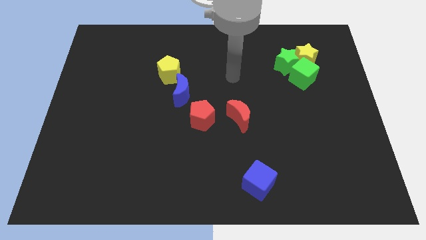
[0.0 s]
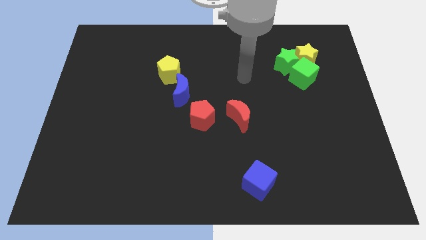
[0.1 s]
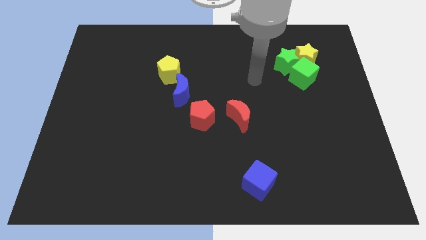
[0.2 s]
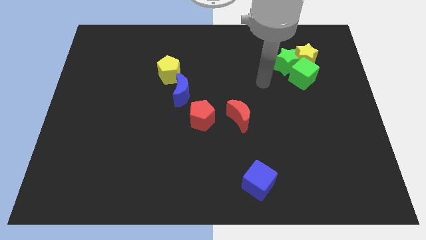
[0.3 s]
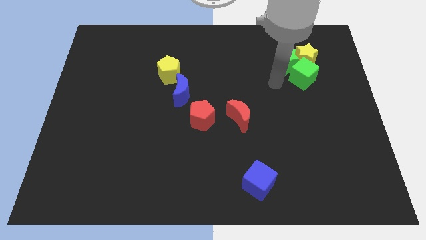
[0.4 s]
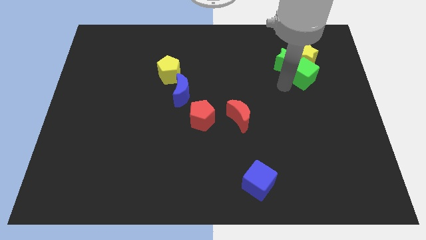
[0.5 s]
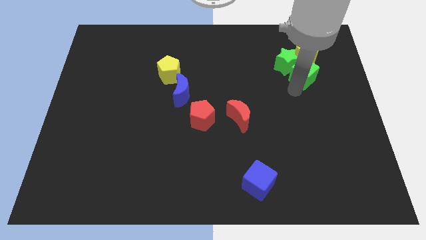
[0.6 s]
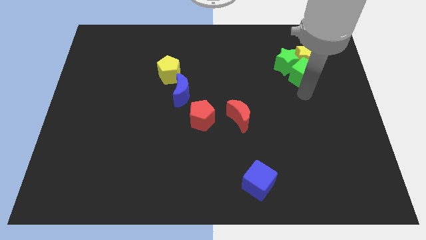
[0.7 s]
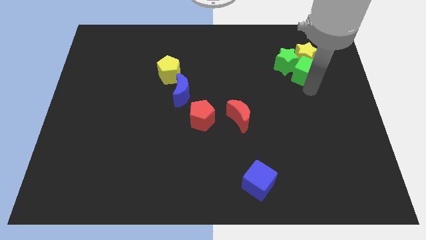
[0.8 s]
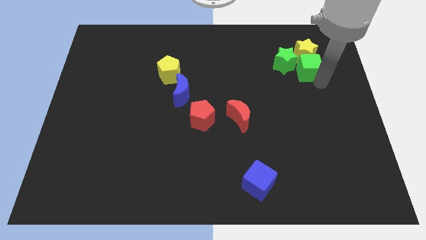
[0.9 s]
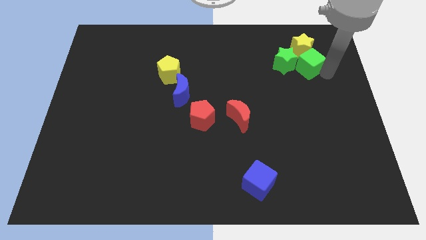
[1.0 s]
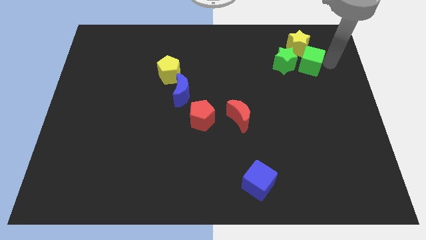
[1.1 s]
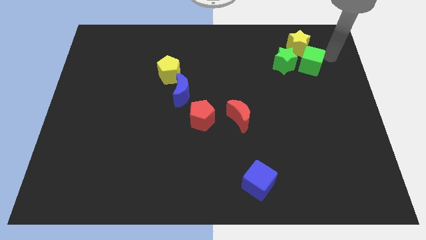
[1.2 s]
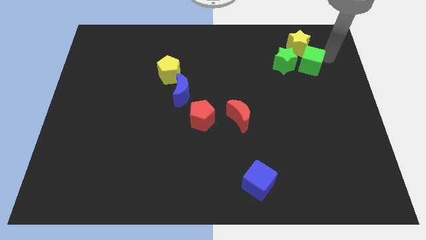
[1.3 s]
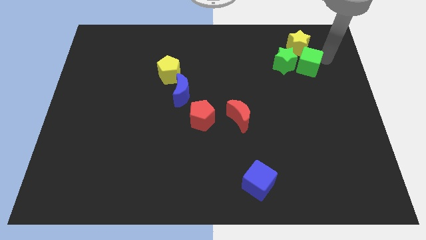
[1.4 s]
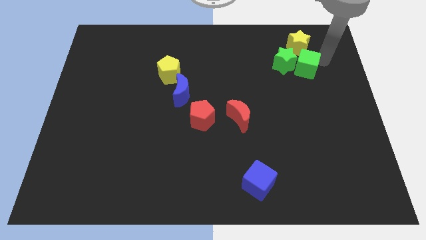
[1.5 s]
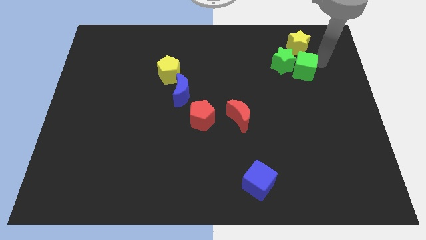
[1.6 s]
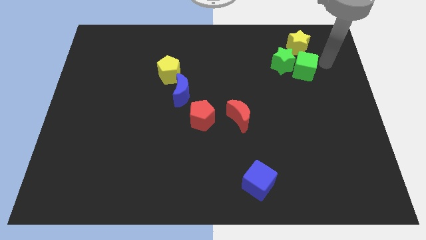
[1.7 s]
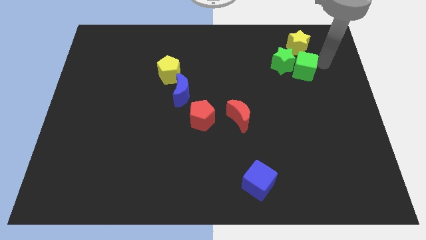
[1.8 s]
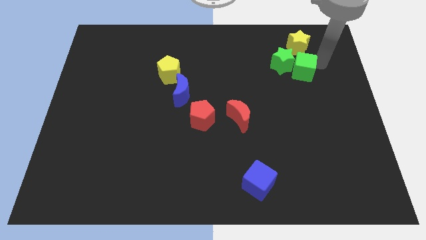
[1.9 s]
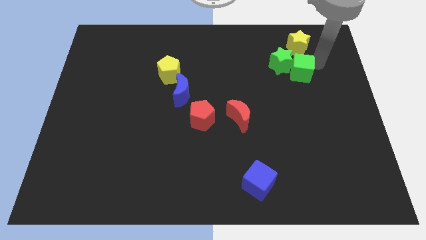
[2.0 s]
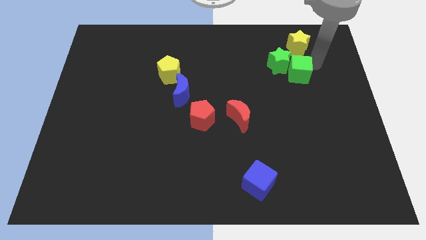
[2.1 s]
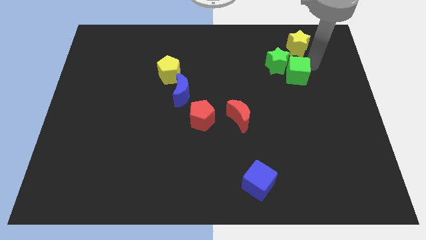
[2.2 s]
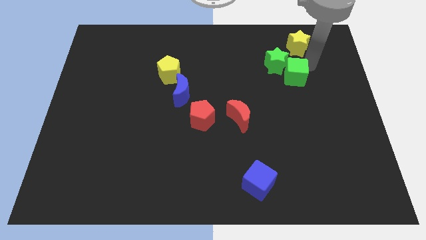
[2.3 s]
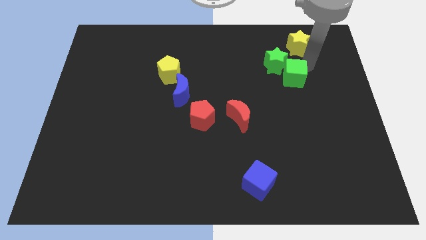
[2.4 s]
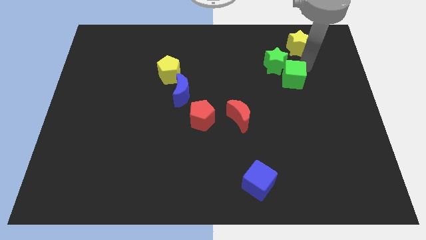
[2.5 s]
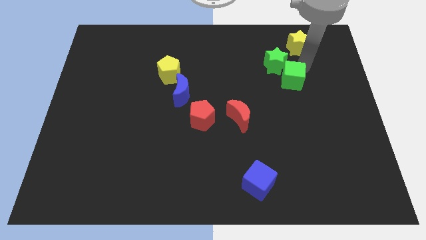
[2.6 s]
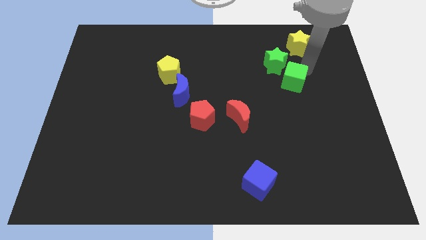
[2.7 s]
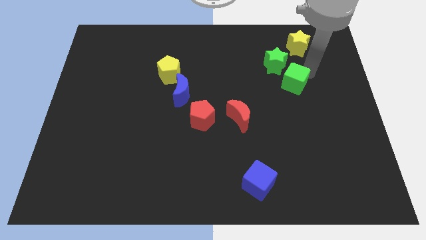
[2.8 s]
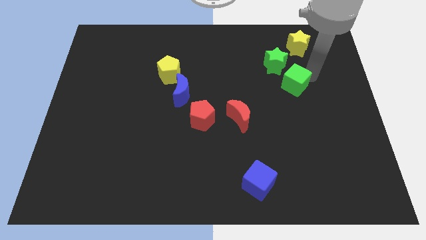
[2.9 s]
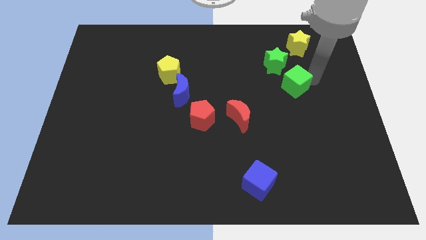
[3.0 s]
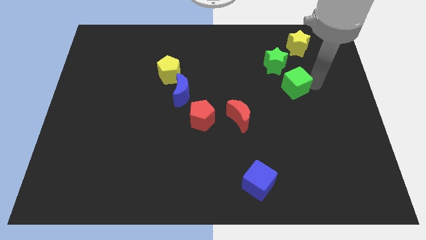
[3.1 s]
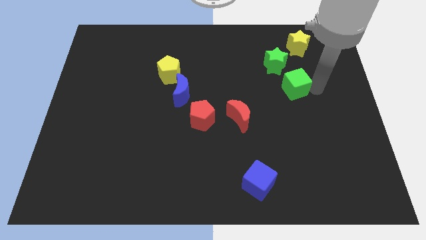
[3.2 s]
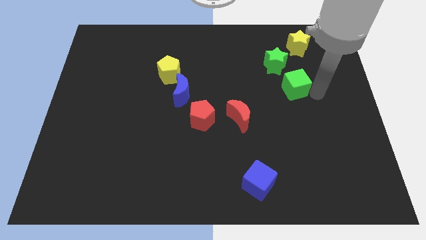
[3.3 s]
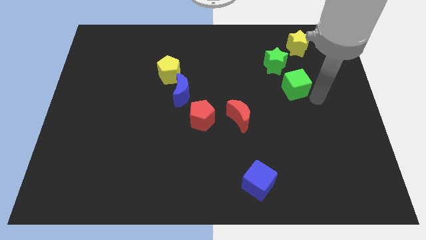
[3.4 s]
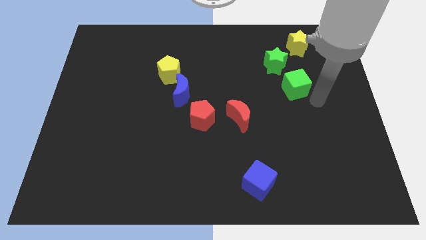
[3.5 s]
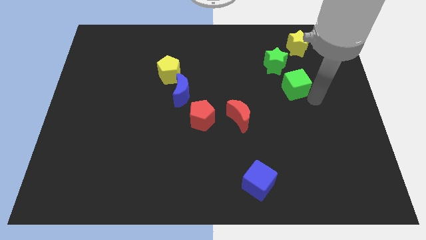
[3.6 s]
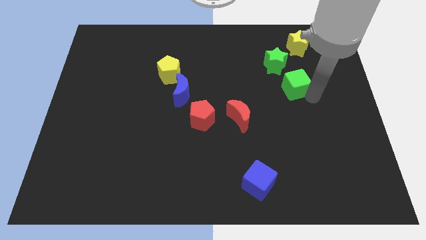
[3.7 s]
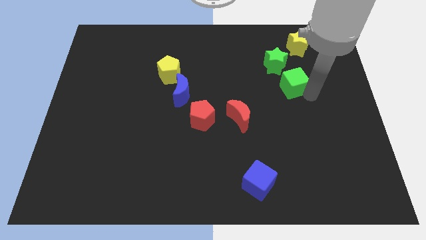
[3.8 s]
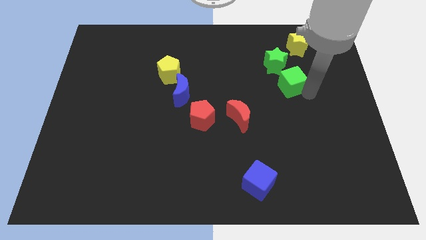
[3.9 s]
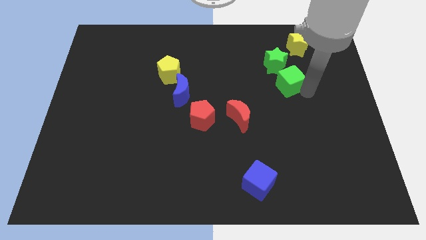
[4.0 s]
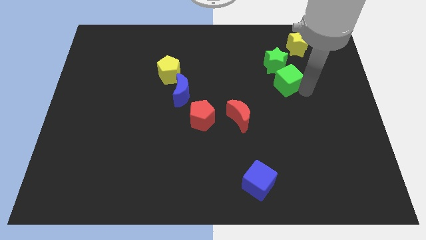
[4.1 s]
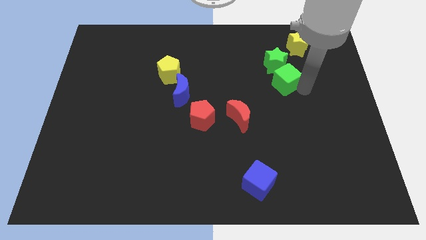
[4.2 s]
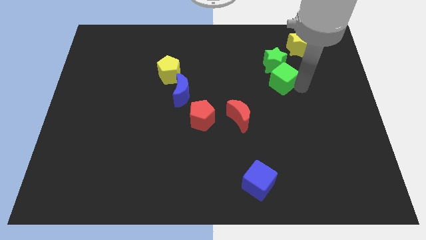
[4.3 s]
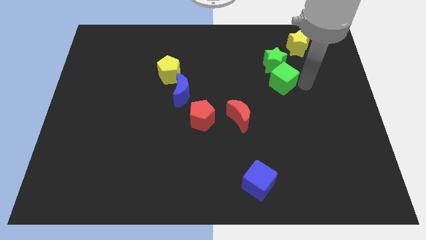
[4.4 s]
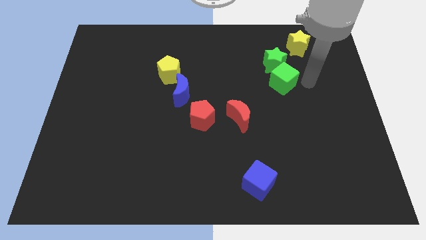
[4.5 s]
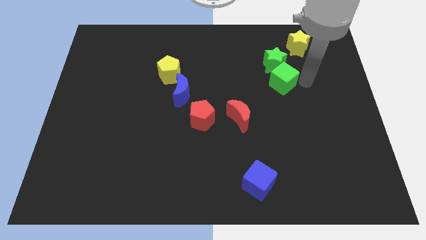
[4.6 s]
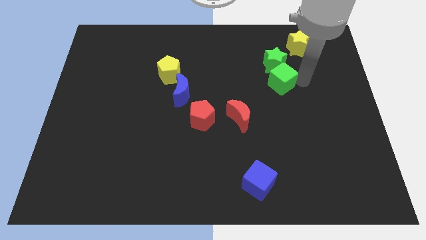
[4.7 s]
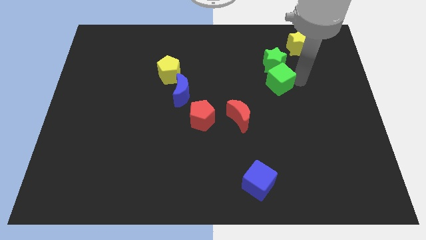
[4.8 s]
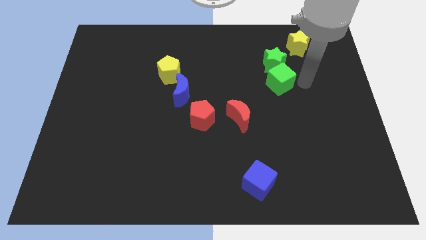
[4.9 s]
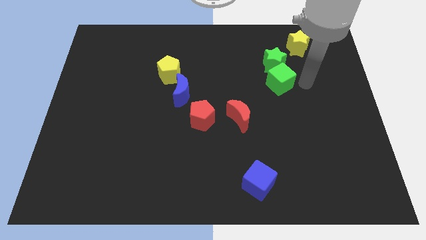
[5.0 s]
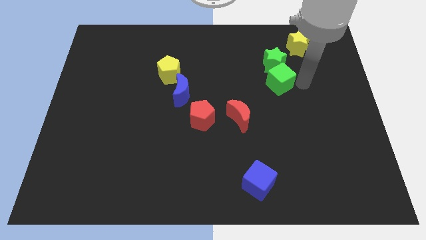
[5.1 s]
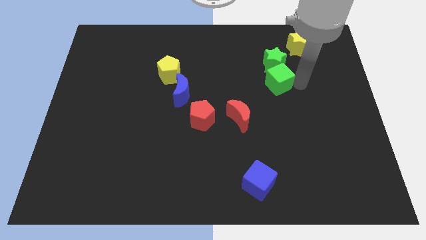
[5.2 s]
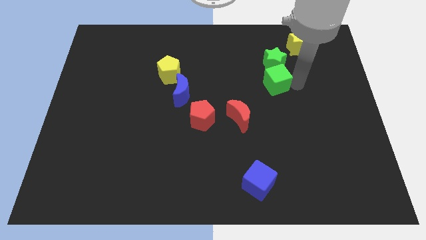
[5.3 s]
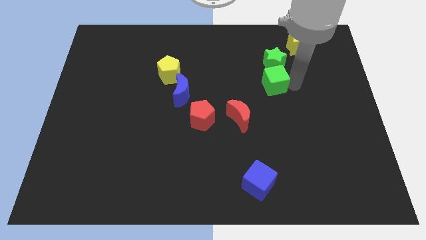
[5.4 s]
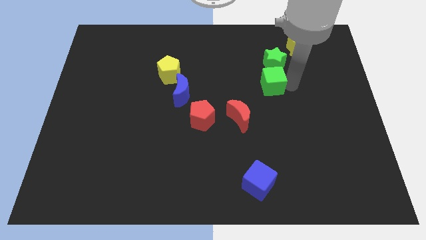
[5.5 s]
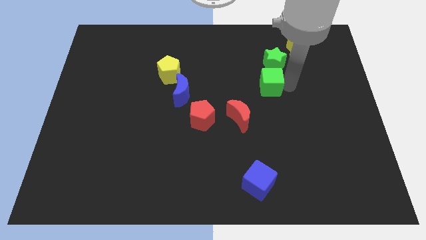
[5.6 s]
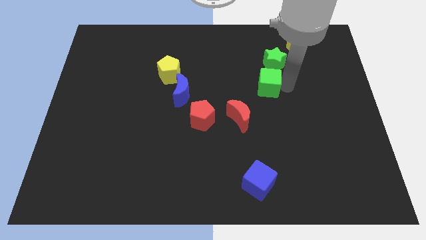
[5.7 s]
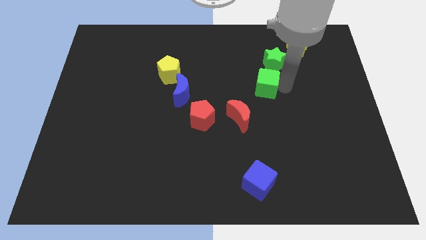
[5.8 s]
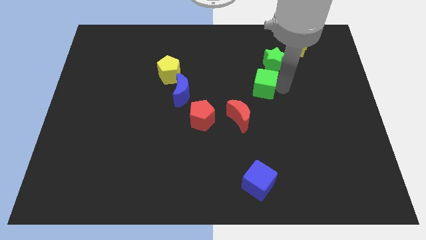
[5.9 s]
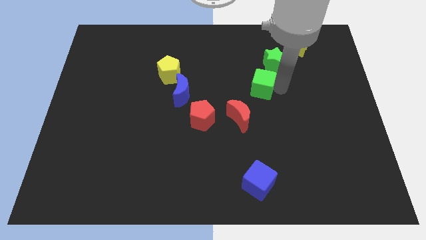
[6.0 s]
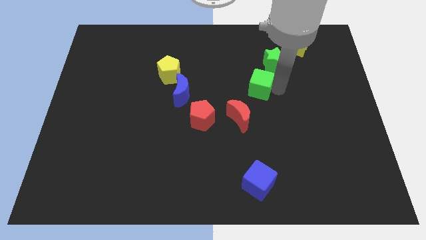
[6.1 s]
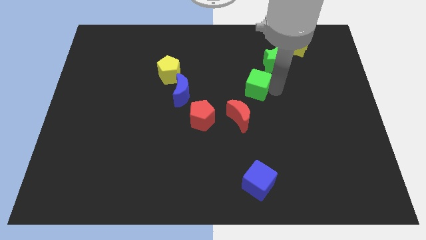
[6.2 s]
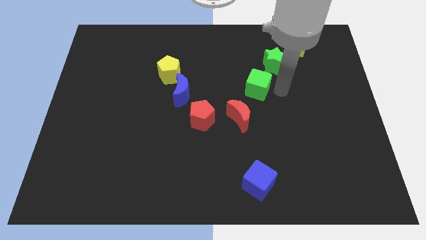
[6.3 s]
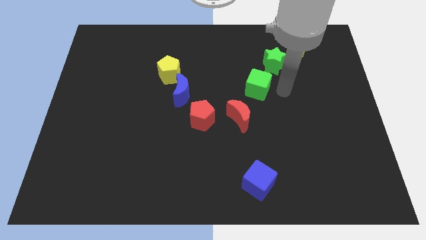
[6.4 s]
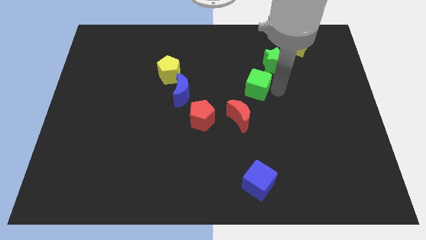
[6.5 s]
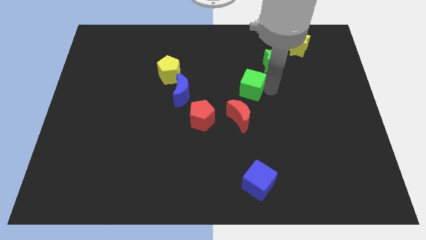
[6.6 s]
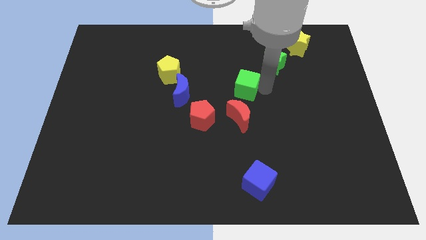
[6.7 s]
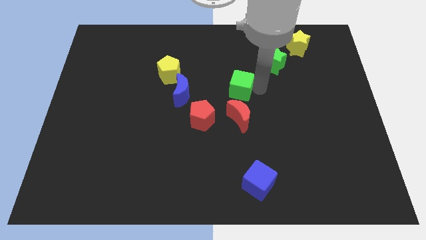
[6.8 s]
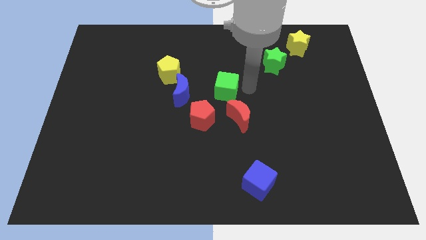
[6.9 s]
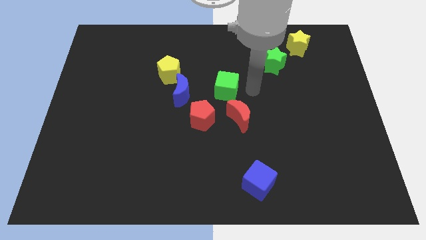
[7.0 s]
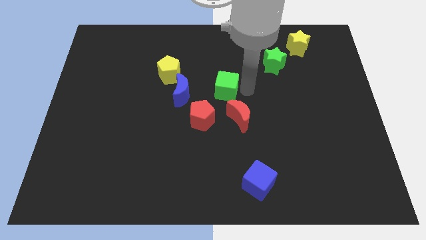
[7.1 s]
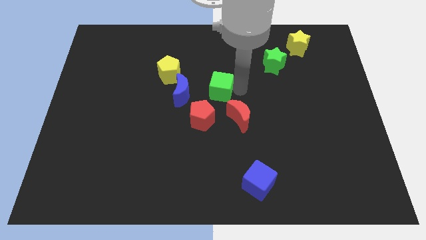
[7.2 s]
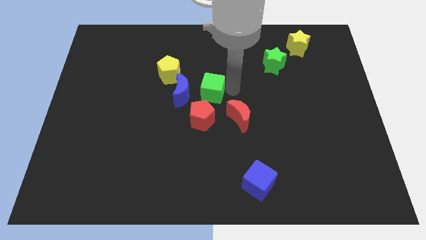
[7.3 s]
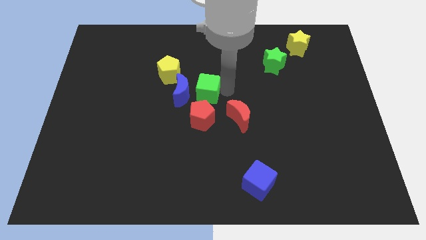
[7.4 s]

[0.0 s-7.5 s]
slide the green cube to the blue moon
